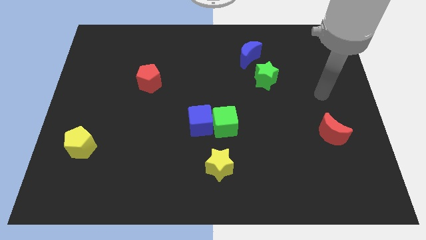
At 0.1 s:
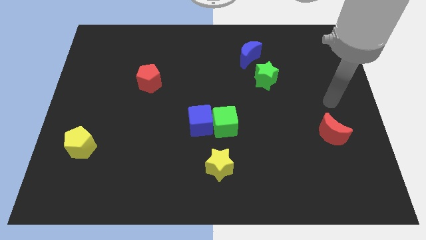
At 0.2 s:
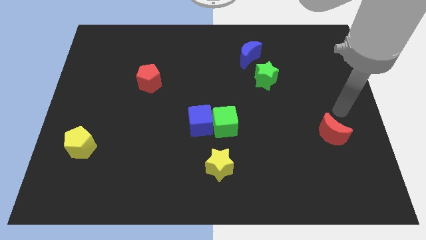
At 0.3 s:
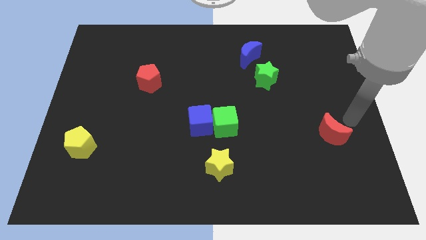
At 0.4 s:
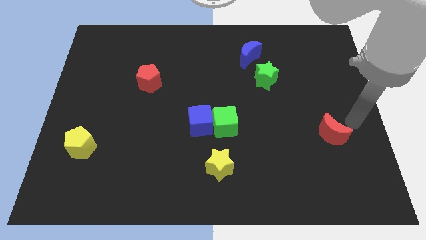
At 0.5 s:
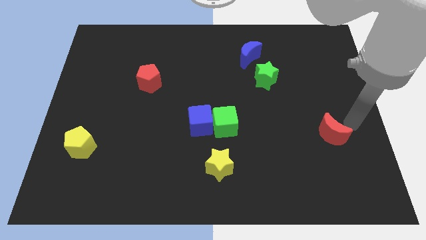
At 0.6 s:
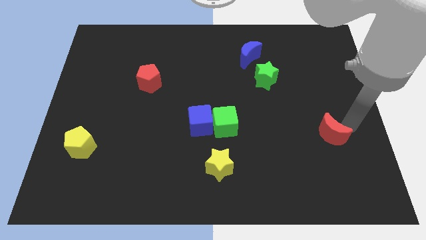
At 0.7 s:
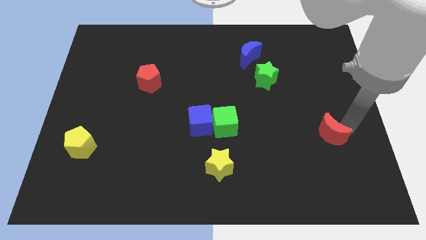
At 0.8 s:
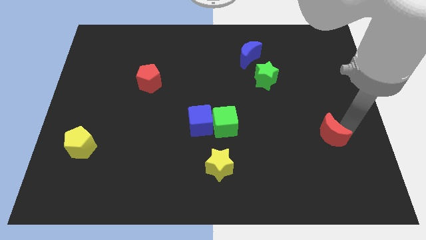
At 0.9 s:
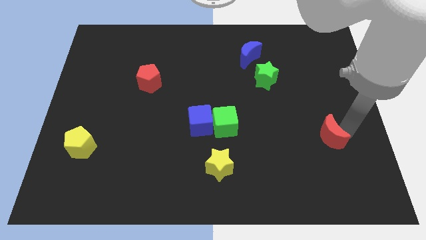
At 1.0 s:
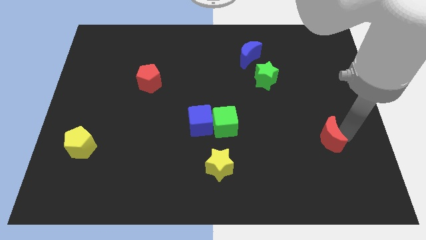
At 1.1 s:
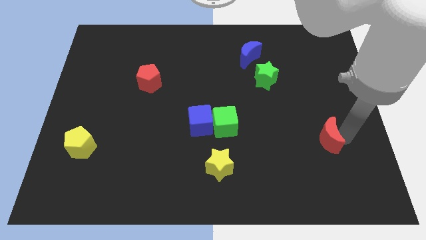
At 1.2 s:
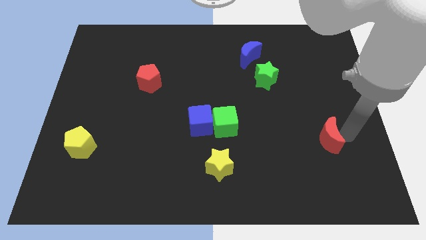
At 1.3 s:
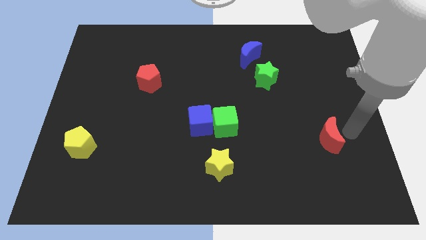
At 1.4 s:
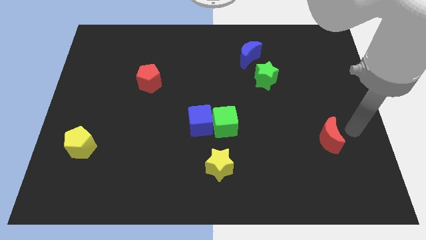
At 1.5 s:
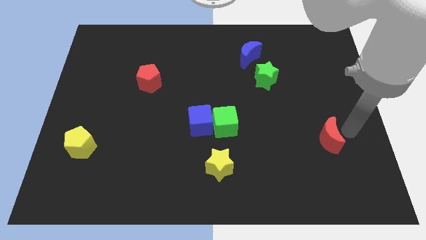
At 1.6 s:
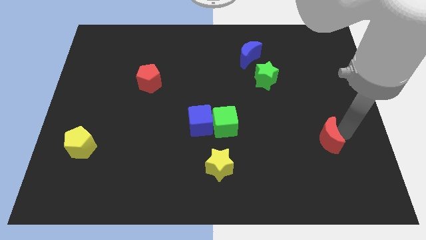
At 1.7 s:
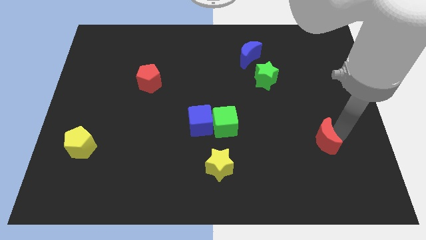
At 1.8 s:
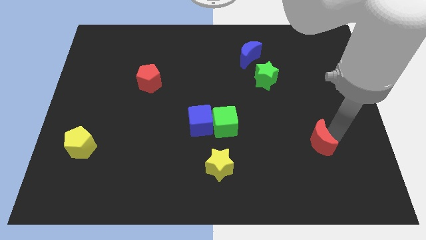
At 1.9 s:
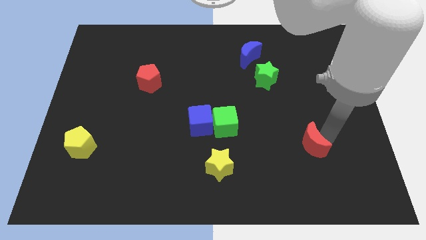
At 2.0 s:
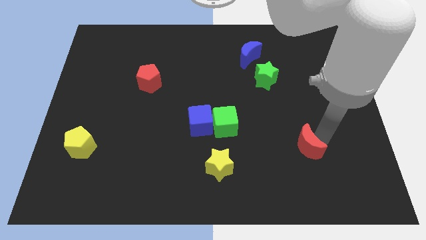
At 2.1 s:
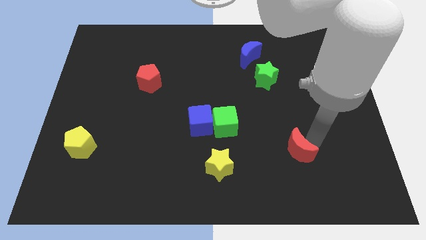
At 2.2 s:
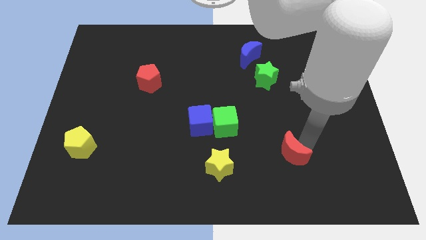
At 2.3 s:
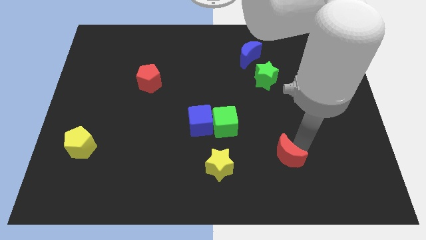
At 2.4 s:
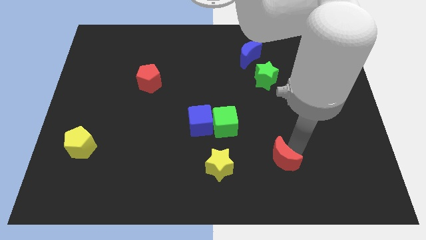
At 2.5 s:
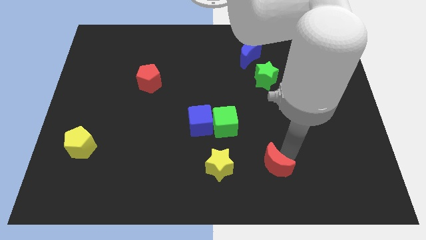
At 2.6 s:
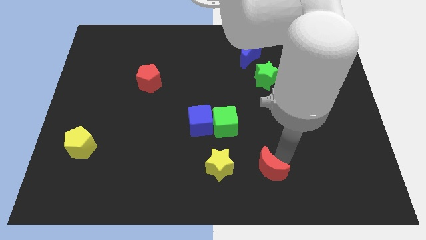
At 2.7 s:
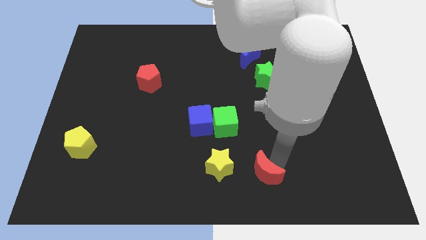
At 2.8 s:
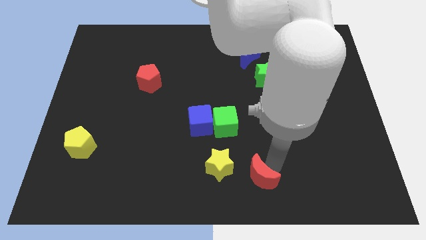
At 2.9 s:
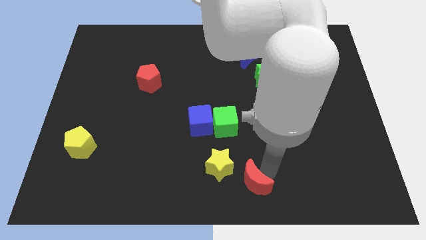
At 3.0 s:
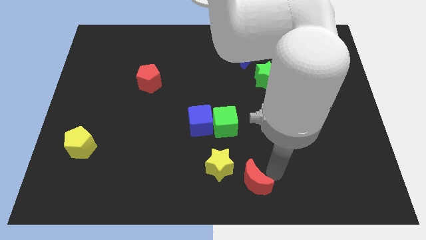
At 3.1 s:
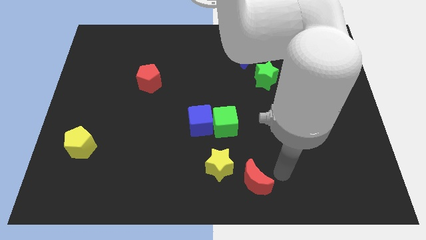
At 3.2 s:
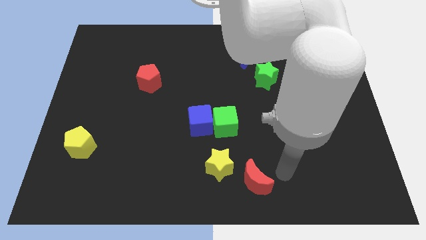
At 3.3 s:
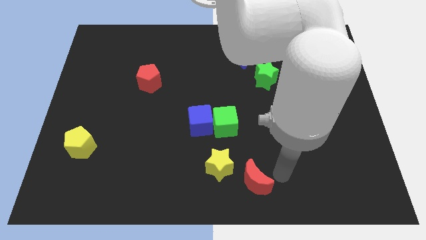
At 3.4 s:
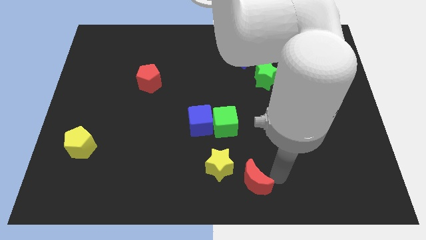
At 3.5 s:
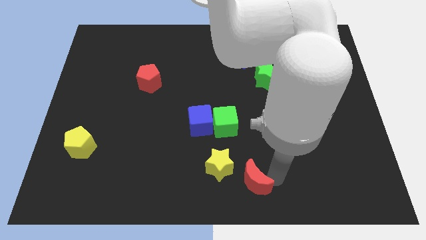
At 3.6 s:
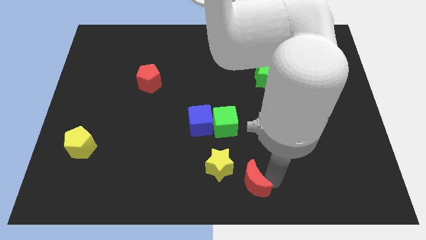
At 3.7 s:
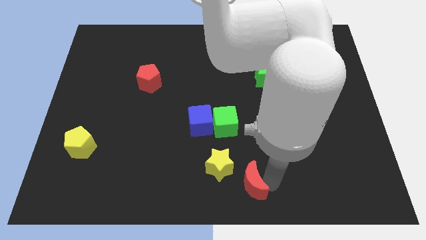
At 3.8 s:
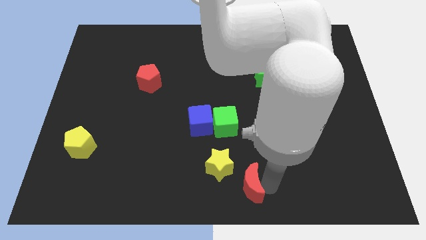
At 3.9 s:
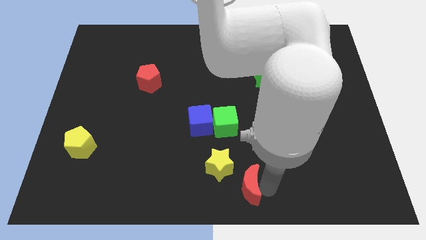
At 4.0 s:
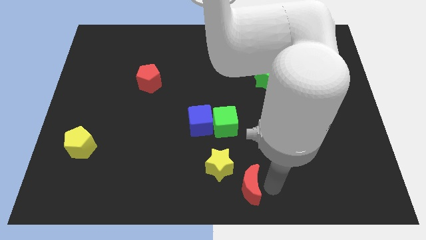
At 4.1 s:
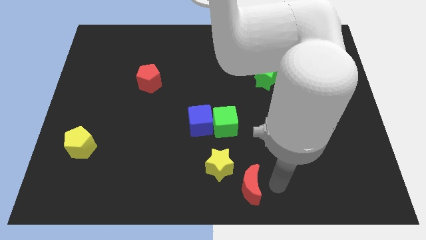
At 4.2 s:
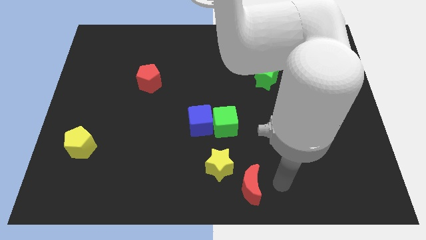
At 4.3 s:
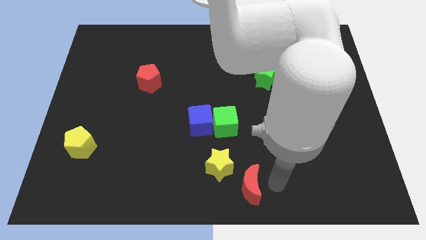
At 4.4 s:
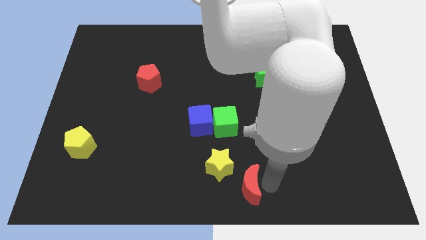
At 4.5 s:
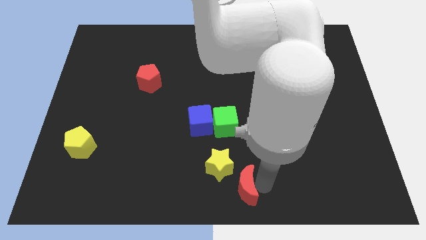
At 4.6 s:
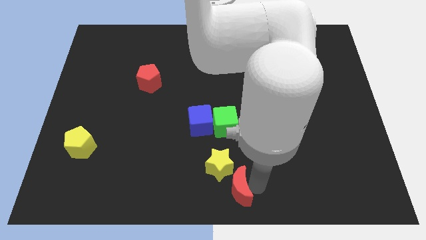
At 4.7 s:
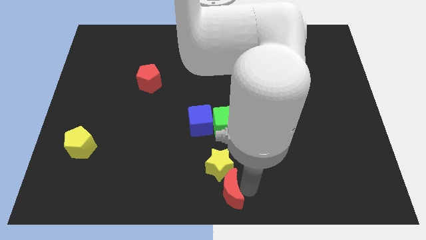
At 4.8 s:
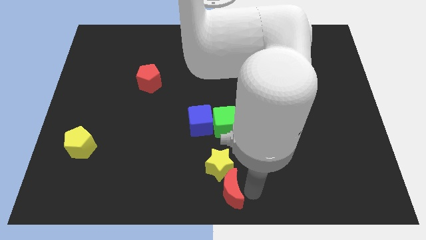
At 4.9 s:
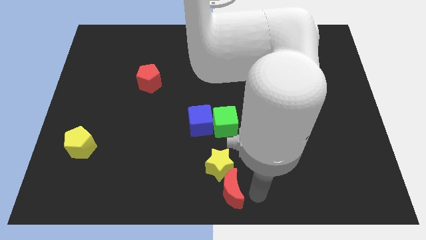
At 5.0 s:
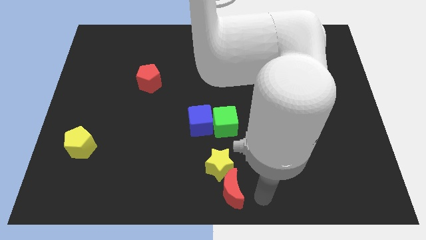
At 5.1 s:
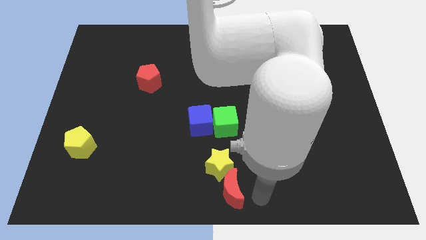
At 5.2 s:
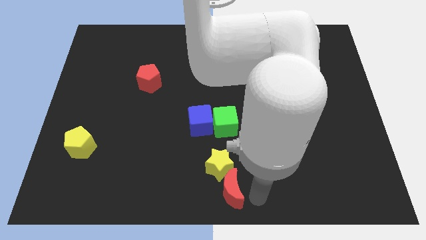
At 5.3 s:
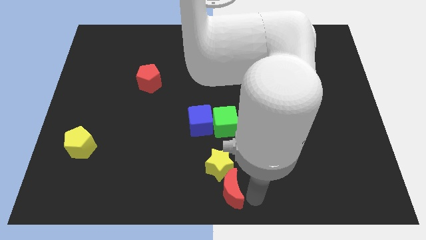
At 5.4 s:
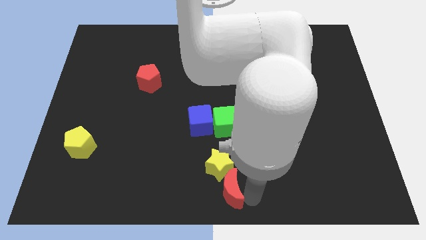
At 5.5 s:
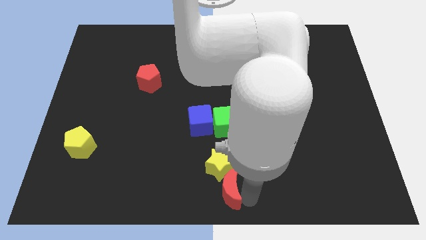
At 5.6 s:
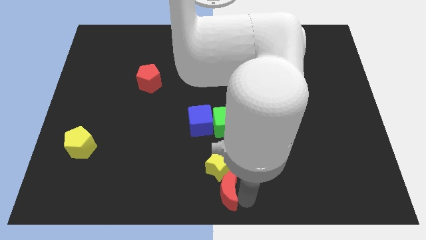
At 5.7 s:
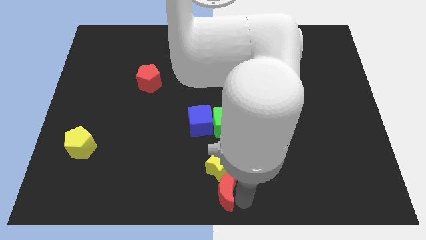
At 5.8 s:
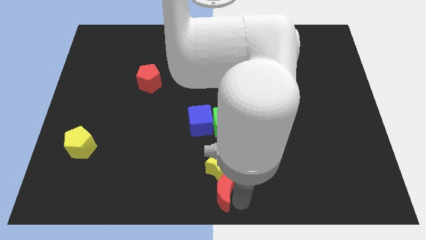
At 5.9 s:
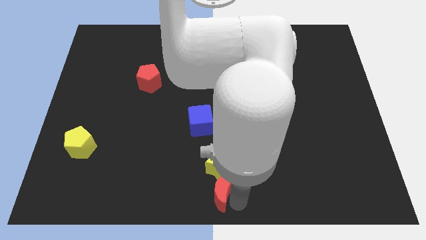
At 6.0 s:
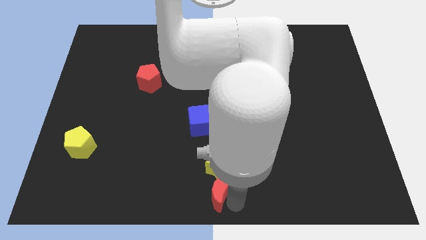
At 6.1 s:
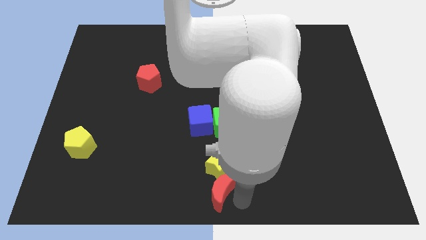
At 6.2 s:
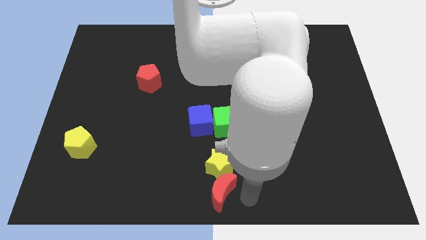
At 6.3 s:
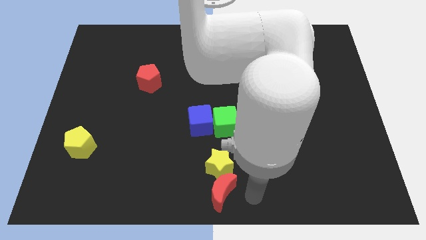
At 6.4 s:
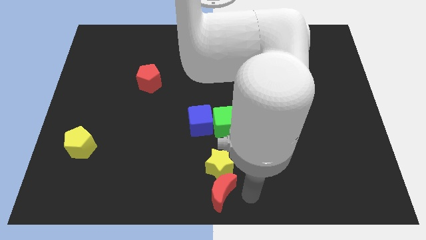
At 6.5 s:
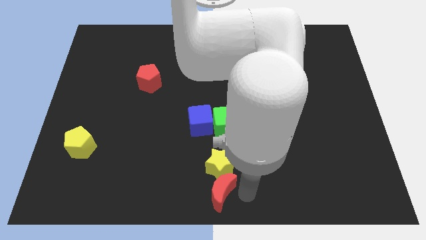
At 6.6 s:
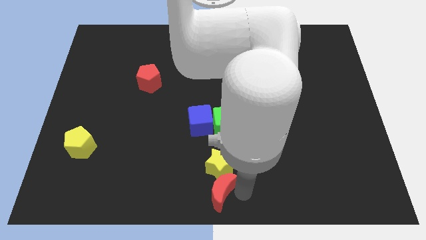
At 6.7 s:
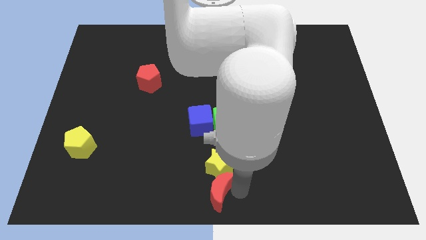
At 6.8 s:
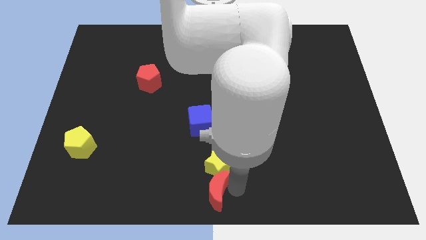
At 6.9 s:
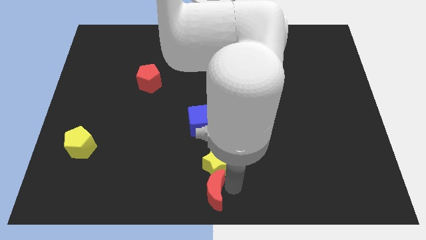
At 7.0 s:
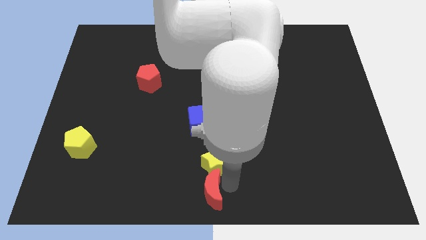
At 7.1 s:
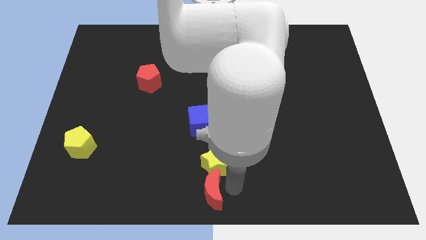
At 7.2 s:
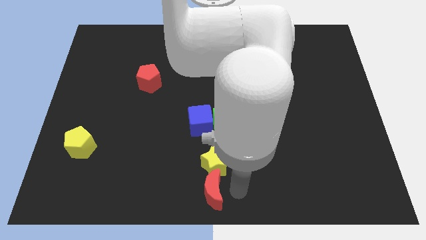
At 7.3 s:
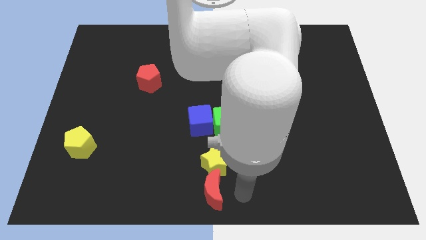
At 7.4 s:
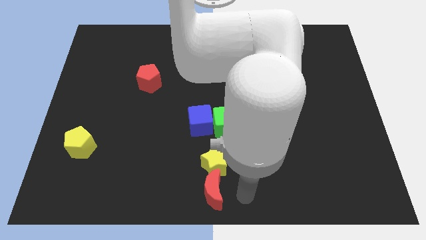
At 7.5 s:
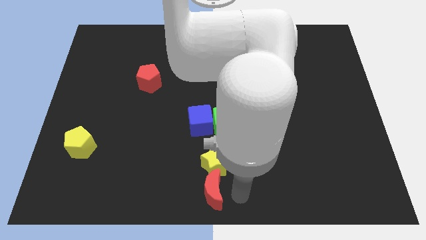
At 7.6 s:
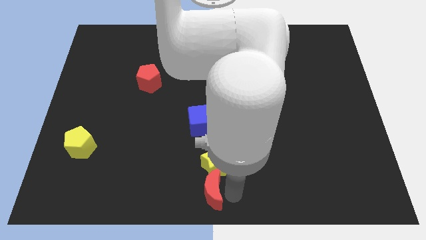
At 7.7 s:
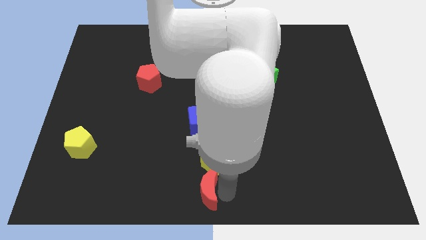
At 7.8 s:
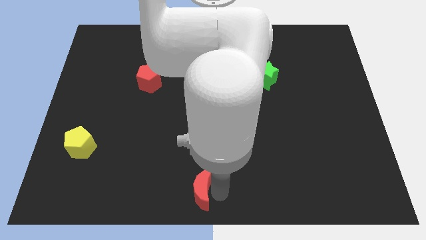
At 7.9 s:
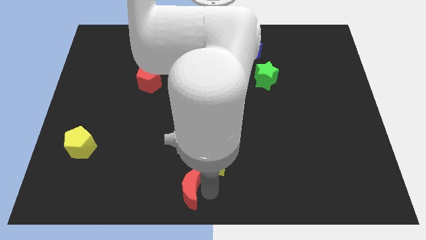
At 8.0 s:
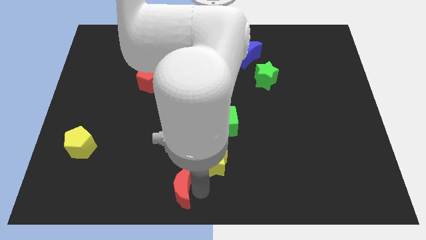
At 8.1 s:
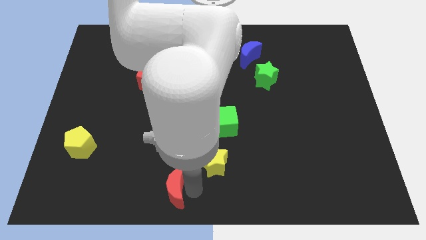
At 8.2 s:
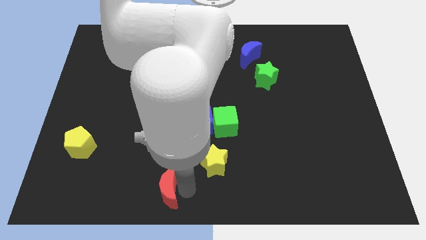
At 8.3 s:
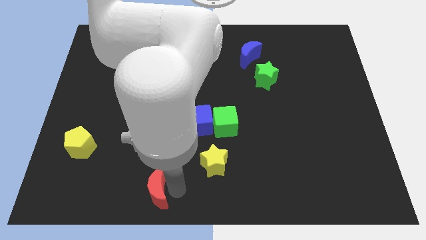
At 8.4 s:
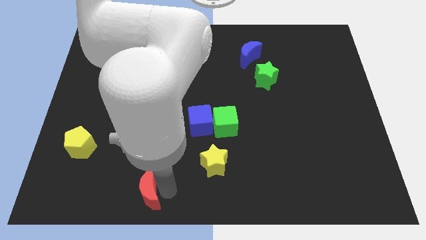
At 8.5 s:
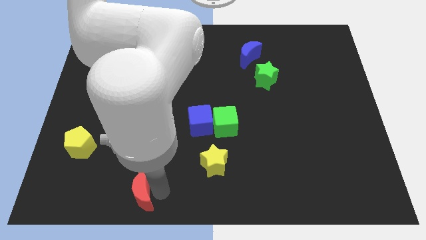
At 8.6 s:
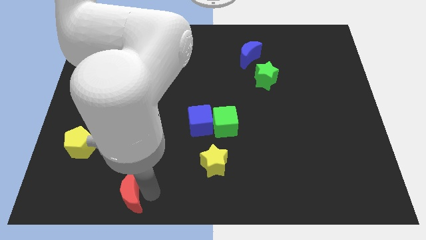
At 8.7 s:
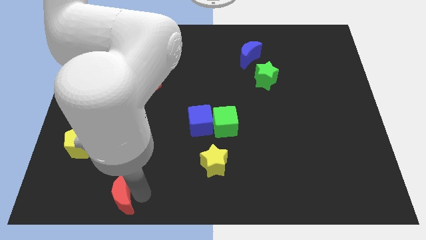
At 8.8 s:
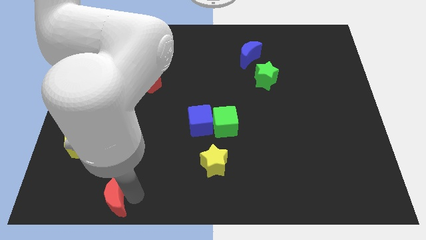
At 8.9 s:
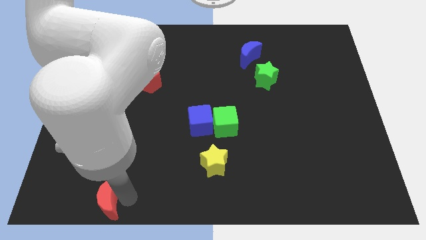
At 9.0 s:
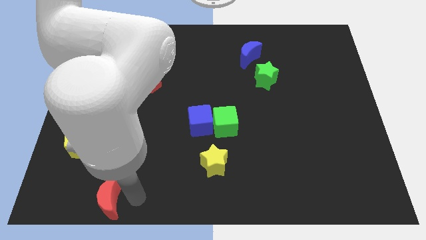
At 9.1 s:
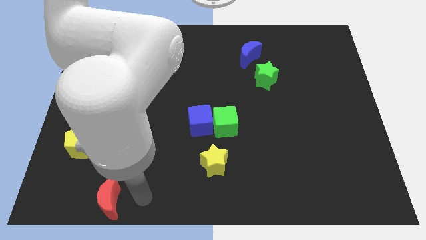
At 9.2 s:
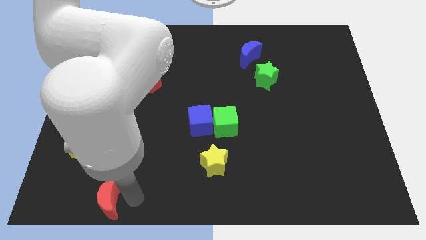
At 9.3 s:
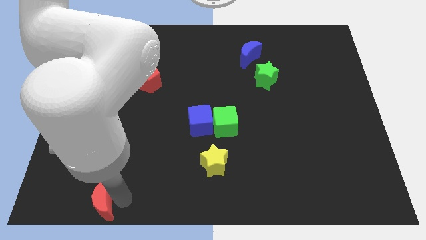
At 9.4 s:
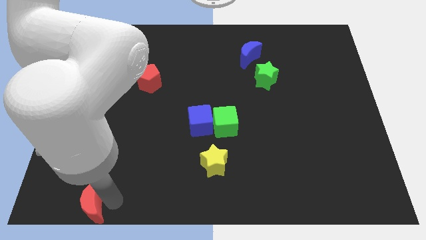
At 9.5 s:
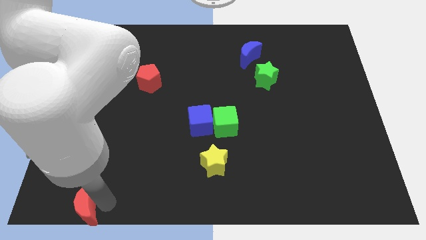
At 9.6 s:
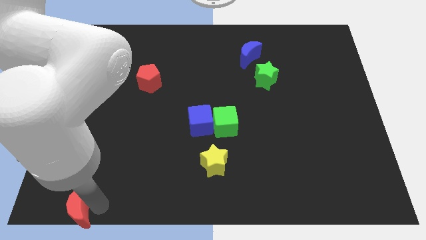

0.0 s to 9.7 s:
slide the red moon to the bottom left of the board
